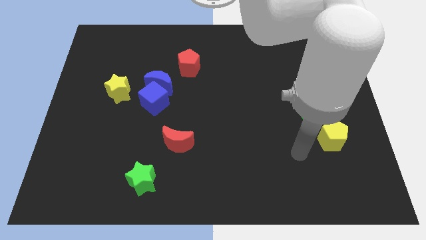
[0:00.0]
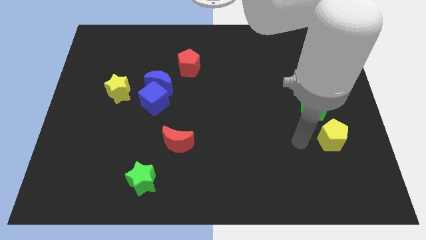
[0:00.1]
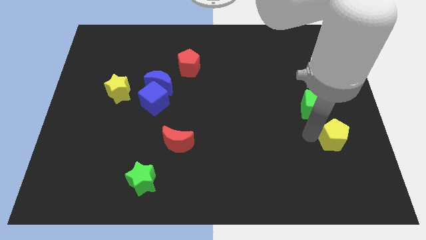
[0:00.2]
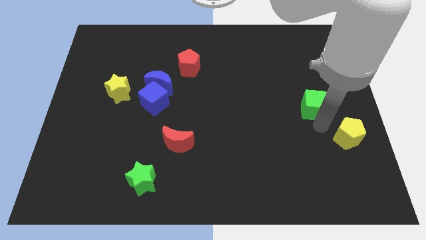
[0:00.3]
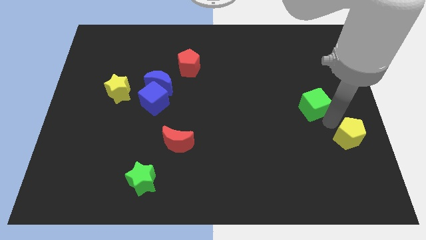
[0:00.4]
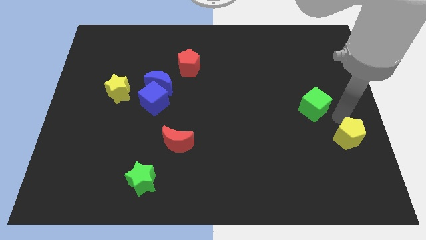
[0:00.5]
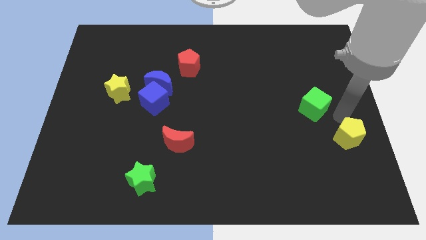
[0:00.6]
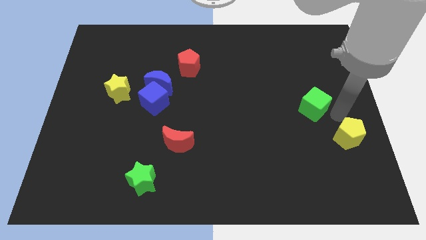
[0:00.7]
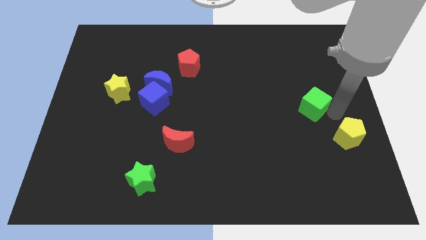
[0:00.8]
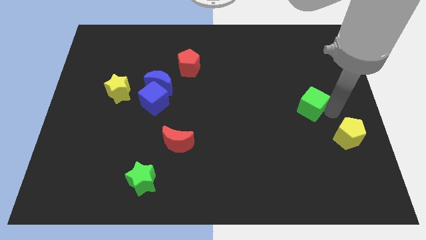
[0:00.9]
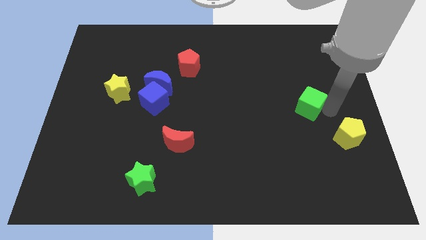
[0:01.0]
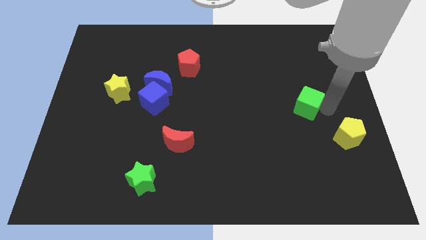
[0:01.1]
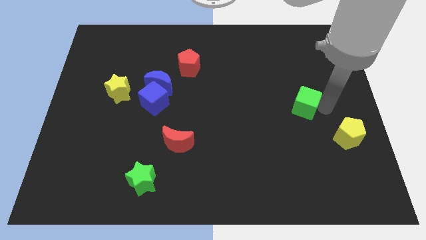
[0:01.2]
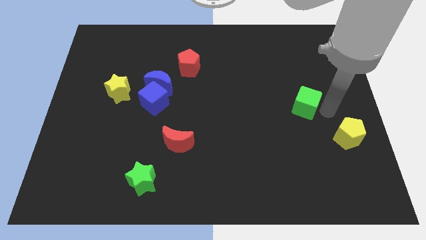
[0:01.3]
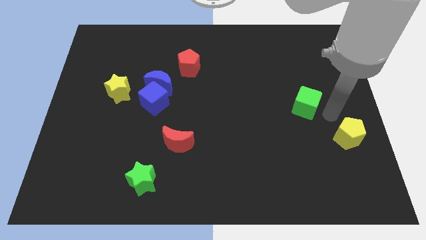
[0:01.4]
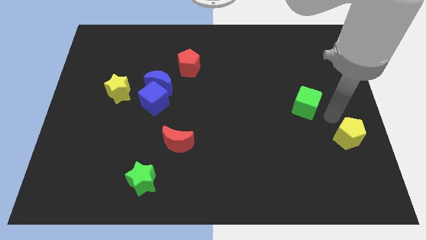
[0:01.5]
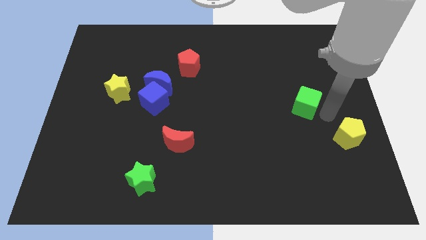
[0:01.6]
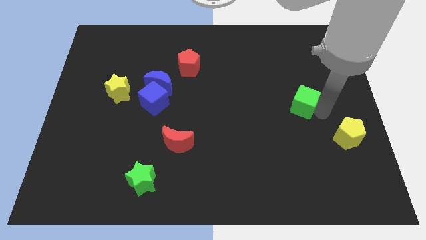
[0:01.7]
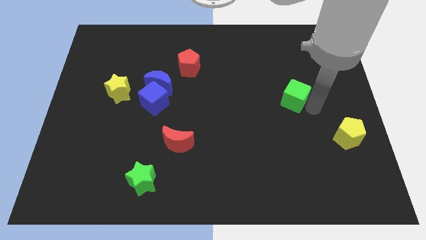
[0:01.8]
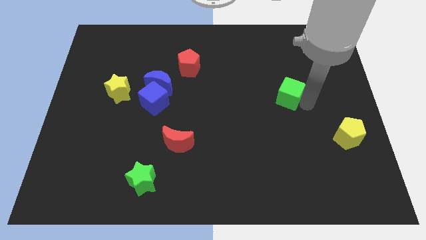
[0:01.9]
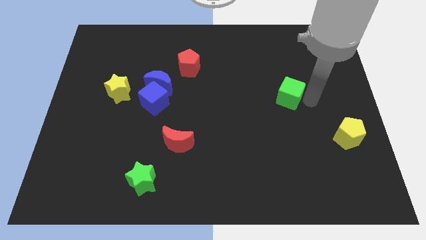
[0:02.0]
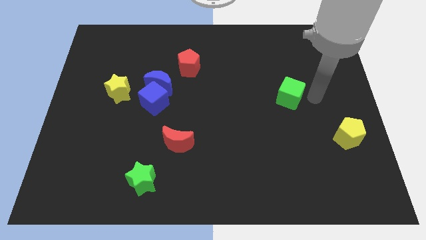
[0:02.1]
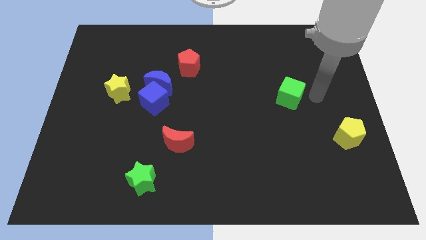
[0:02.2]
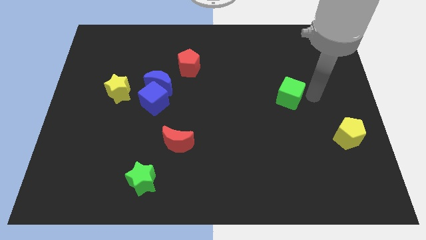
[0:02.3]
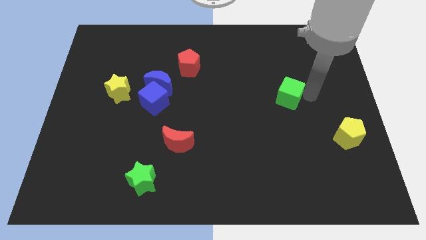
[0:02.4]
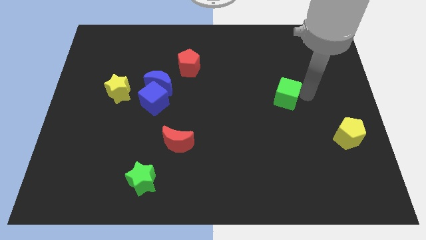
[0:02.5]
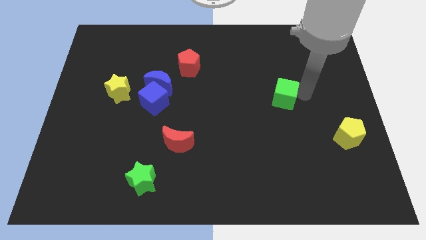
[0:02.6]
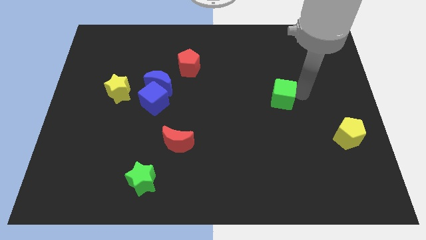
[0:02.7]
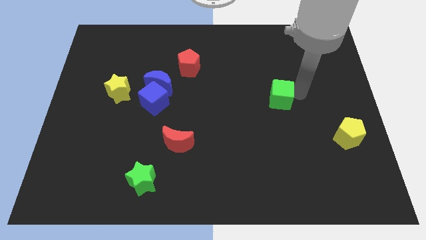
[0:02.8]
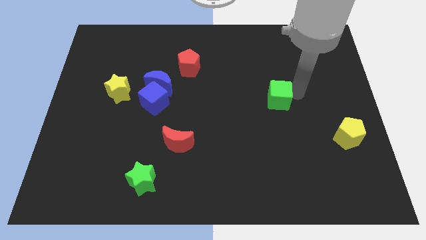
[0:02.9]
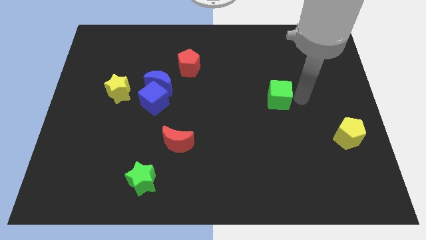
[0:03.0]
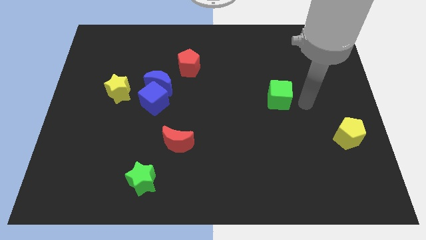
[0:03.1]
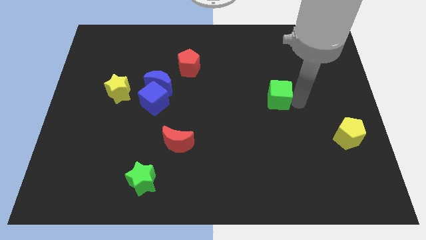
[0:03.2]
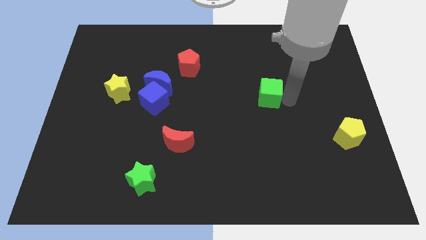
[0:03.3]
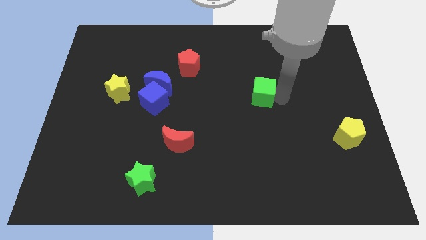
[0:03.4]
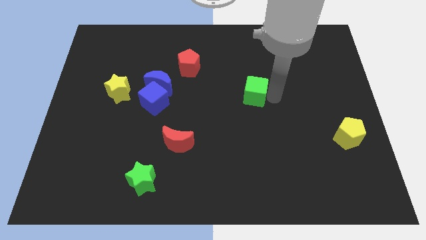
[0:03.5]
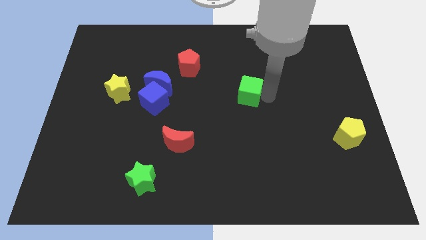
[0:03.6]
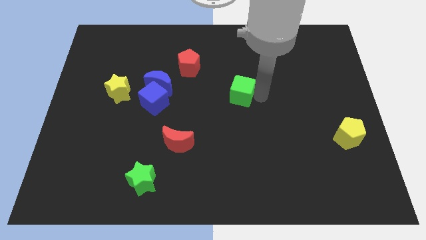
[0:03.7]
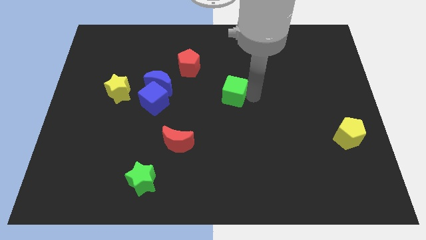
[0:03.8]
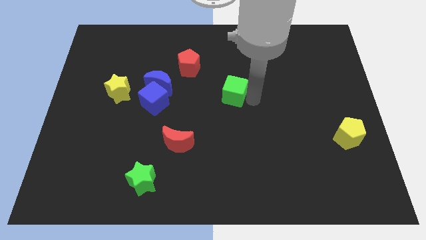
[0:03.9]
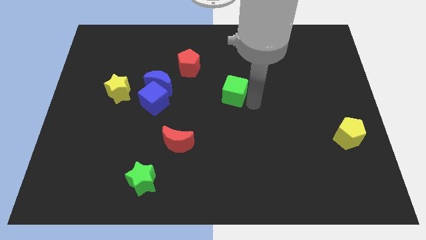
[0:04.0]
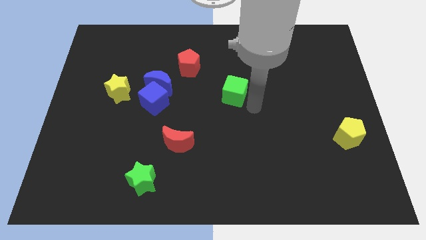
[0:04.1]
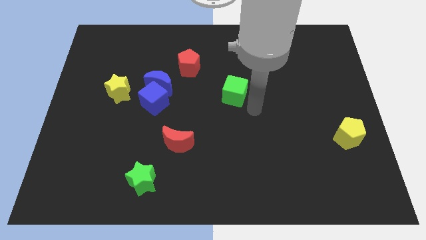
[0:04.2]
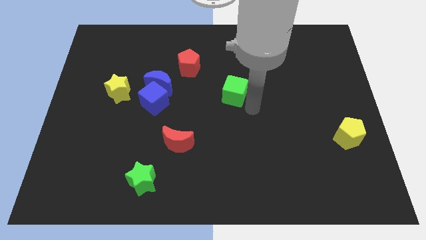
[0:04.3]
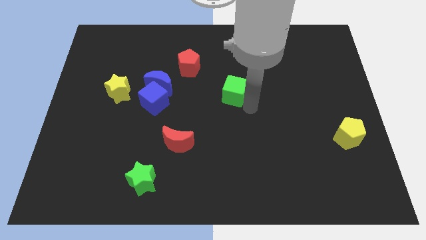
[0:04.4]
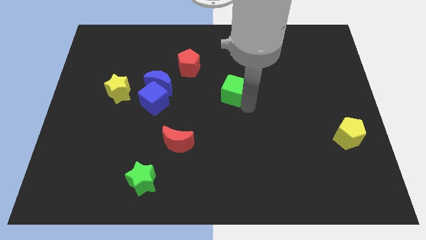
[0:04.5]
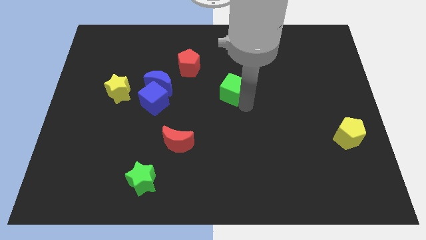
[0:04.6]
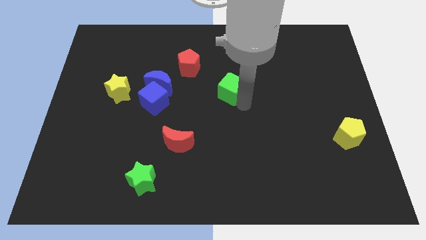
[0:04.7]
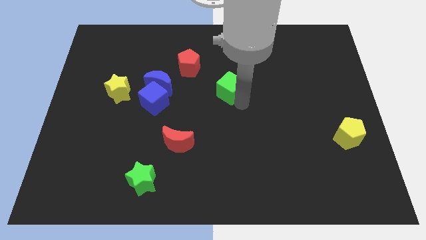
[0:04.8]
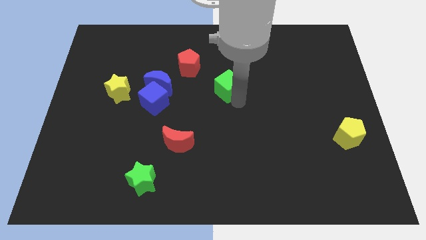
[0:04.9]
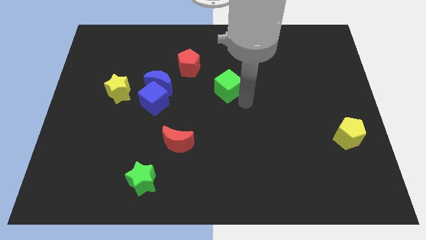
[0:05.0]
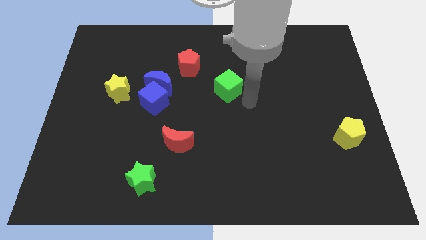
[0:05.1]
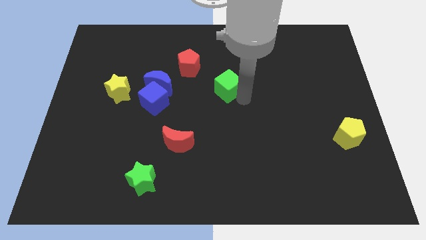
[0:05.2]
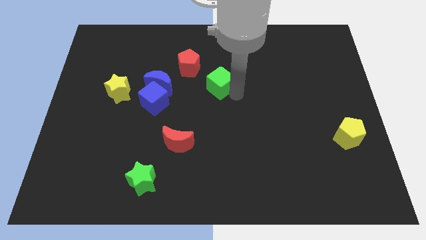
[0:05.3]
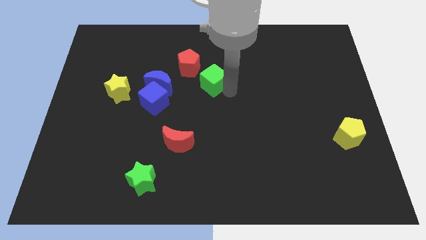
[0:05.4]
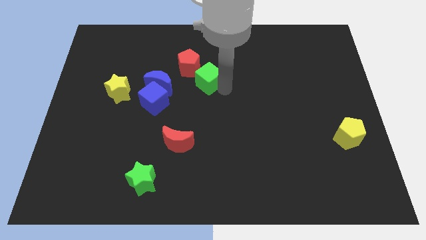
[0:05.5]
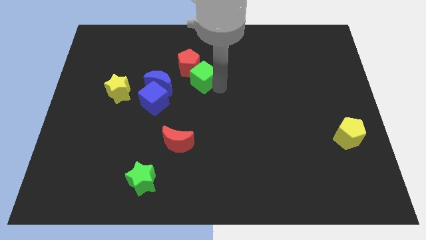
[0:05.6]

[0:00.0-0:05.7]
move the green cube towards the red pentagon

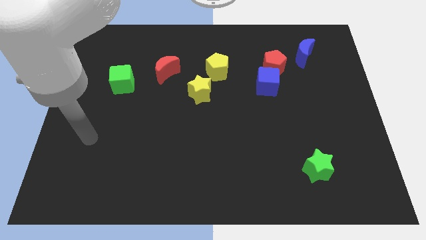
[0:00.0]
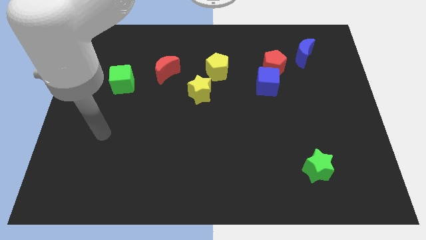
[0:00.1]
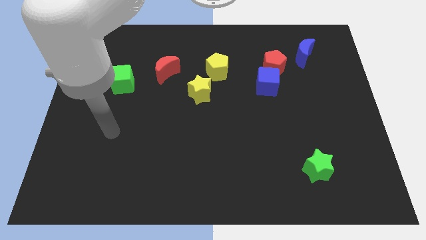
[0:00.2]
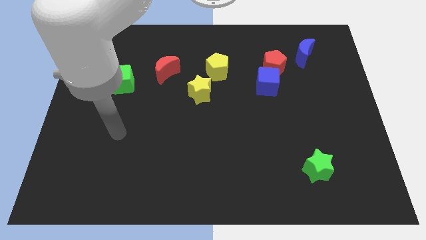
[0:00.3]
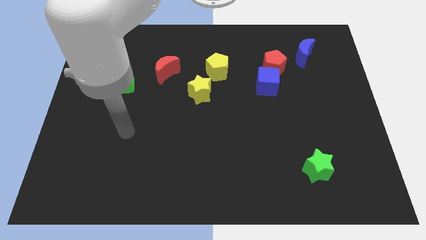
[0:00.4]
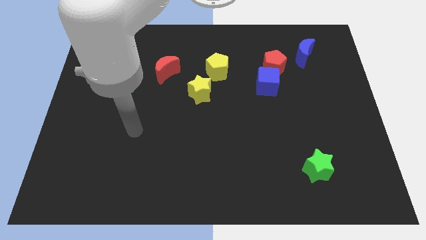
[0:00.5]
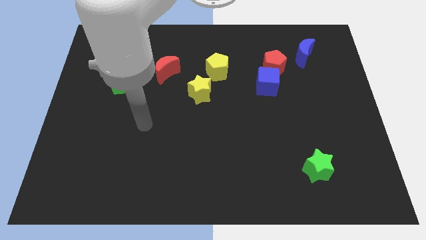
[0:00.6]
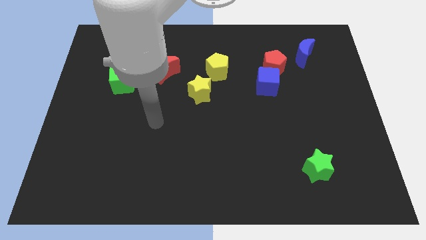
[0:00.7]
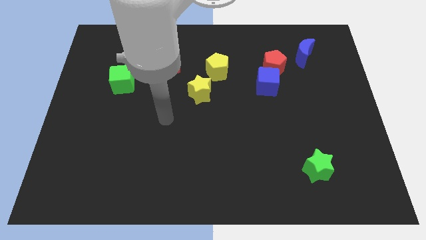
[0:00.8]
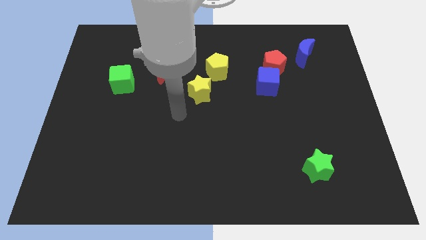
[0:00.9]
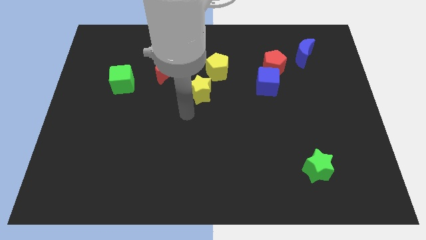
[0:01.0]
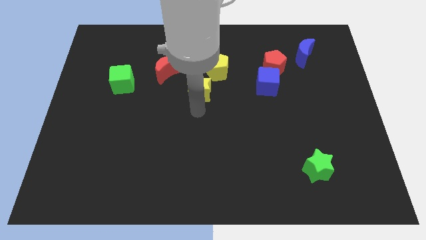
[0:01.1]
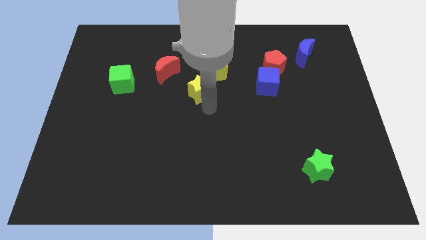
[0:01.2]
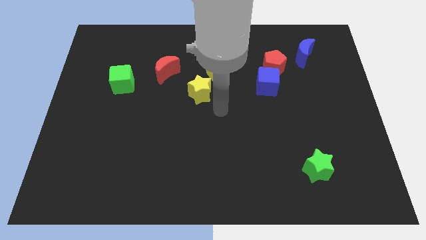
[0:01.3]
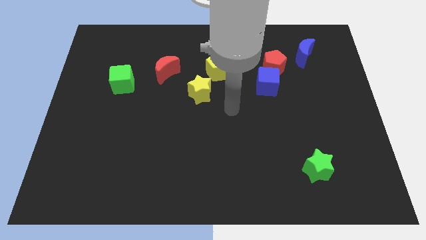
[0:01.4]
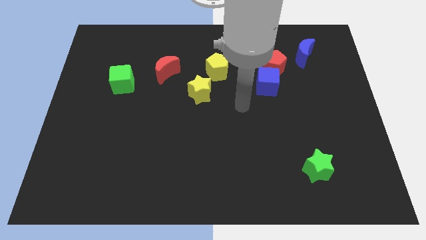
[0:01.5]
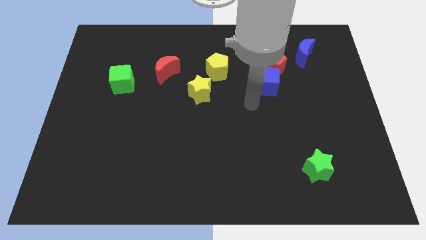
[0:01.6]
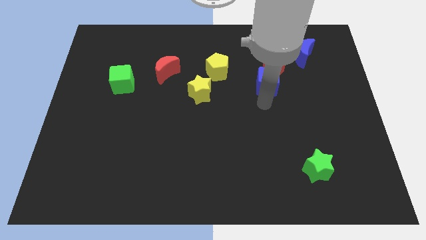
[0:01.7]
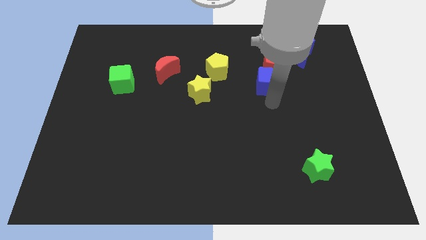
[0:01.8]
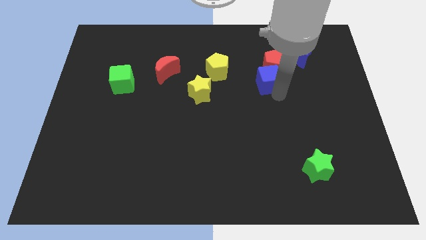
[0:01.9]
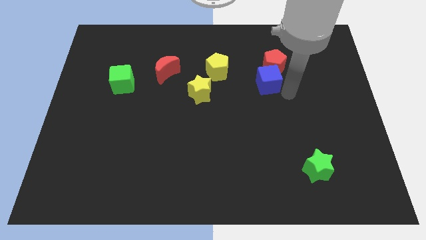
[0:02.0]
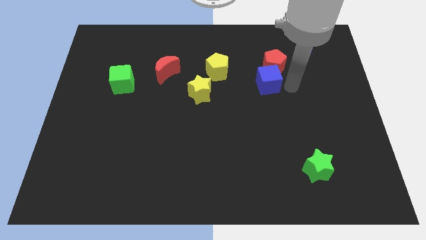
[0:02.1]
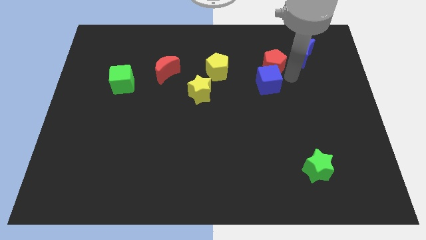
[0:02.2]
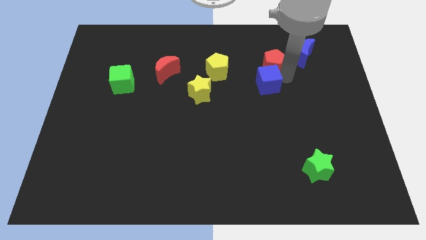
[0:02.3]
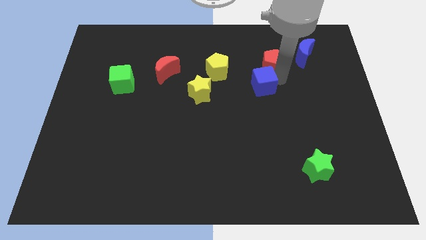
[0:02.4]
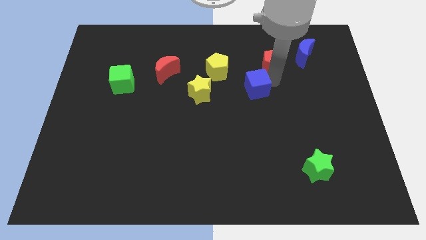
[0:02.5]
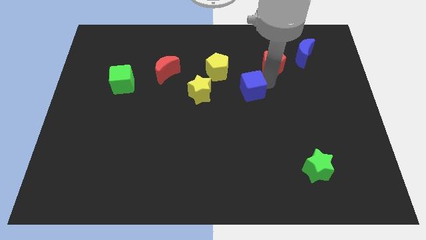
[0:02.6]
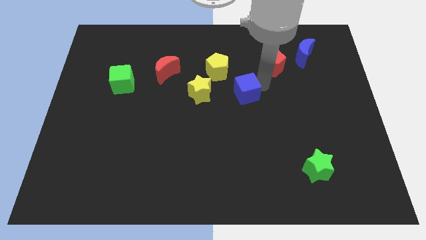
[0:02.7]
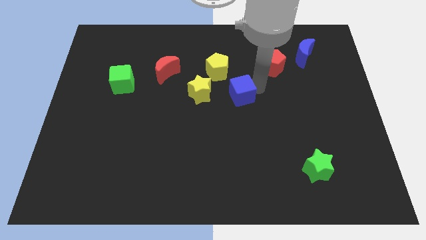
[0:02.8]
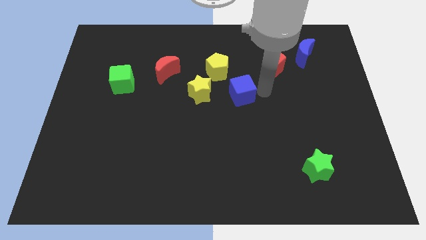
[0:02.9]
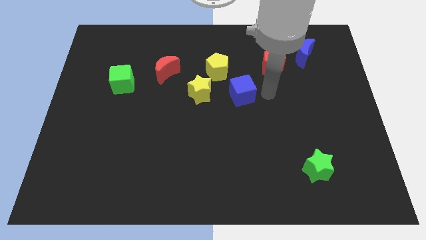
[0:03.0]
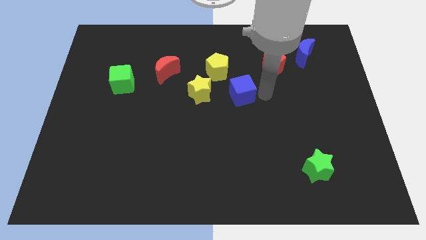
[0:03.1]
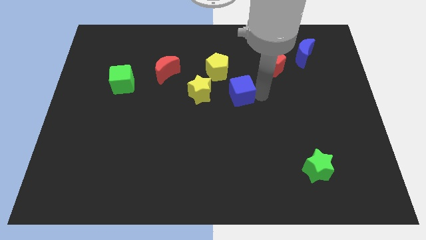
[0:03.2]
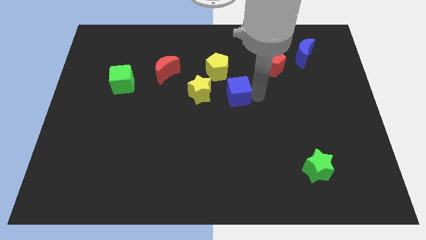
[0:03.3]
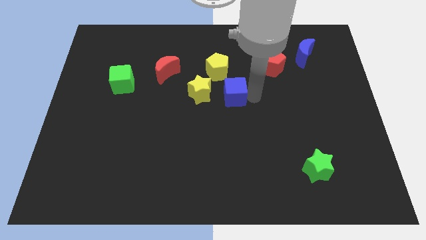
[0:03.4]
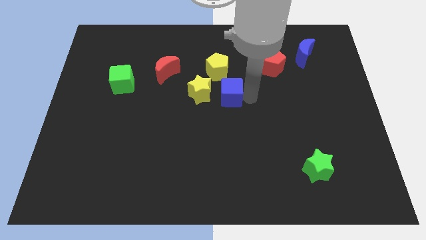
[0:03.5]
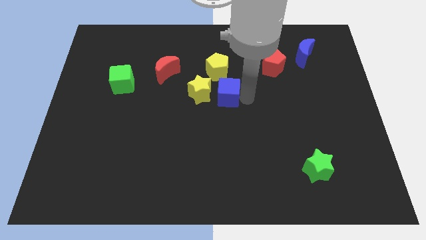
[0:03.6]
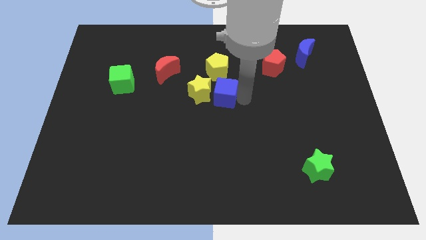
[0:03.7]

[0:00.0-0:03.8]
move the blue cube to the yellow star
